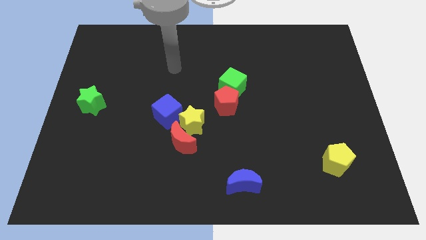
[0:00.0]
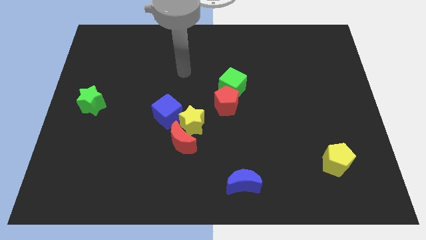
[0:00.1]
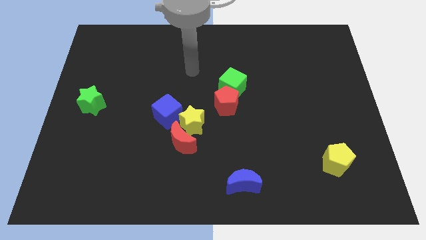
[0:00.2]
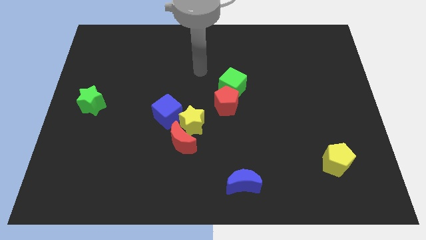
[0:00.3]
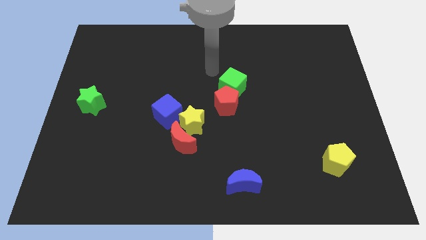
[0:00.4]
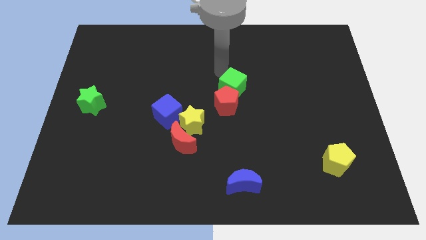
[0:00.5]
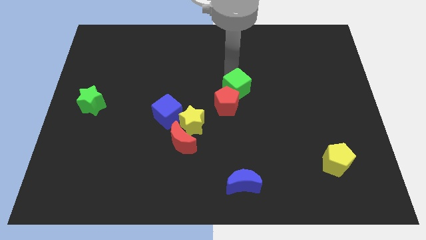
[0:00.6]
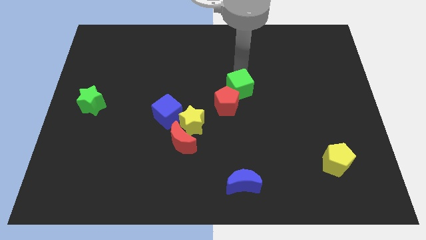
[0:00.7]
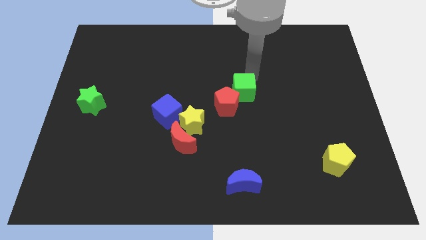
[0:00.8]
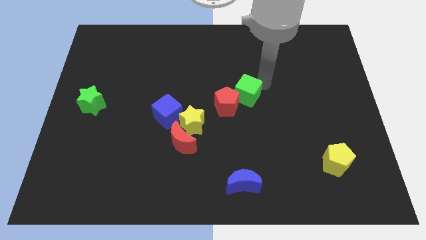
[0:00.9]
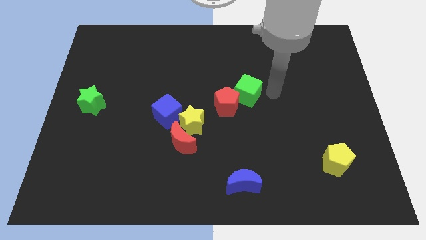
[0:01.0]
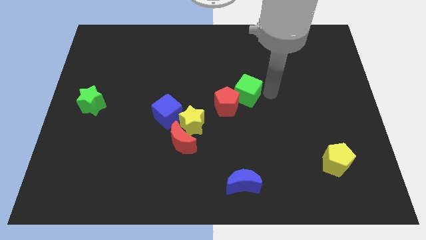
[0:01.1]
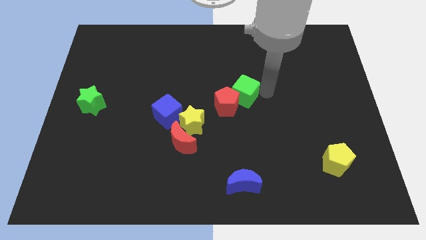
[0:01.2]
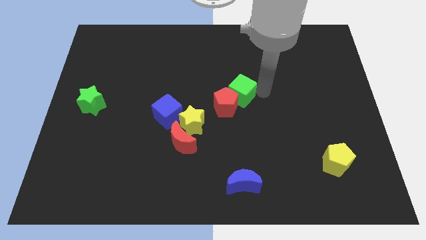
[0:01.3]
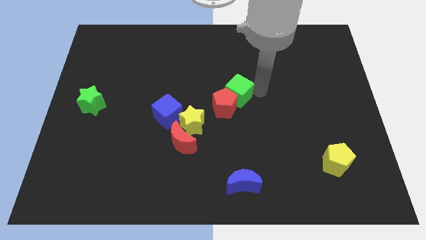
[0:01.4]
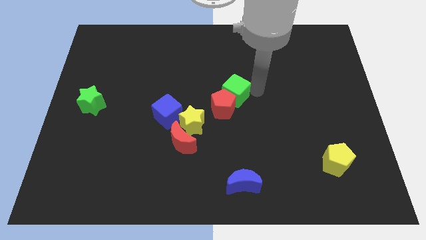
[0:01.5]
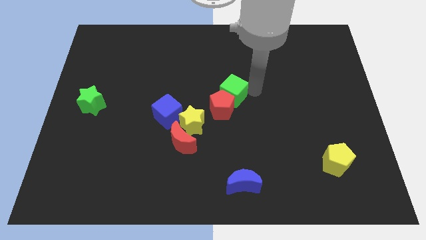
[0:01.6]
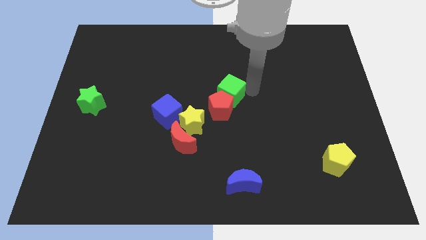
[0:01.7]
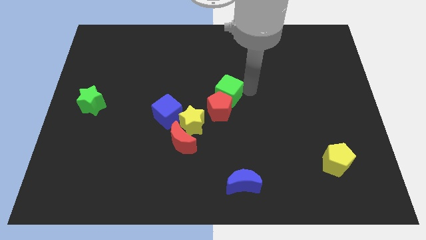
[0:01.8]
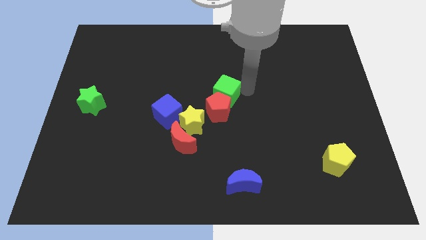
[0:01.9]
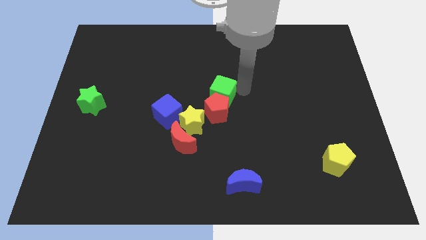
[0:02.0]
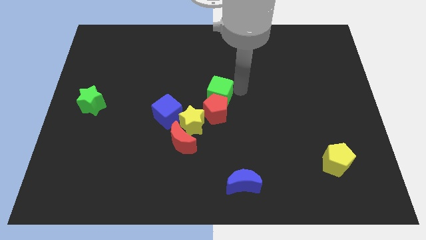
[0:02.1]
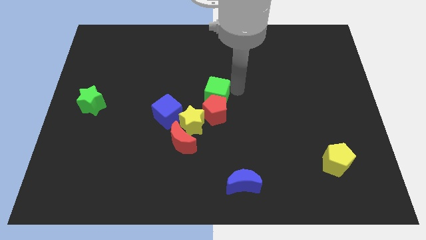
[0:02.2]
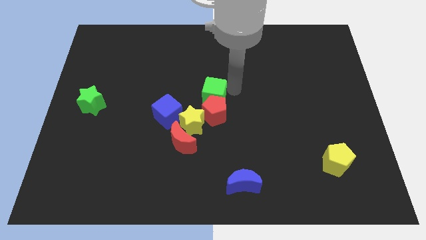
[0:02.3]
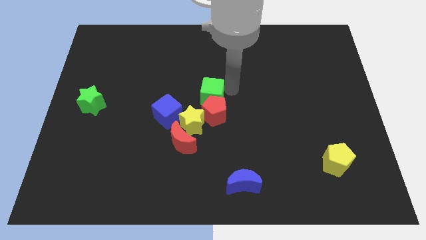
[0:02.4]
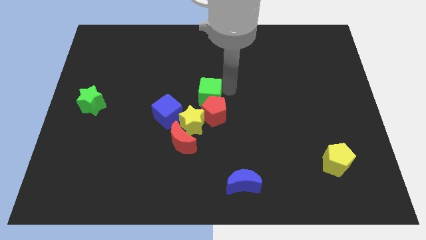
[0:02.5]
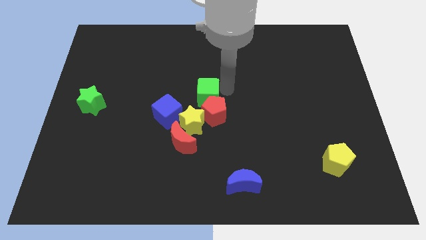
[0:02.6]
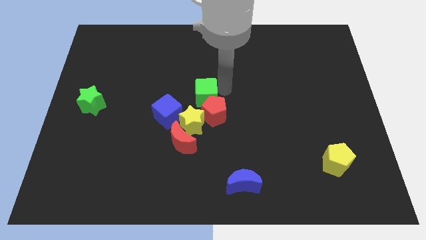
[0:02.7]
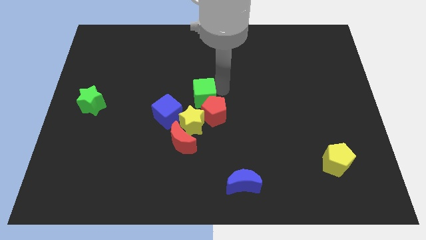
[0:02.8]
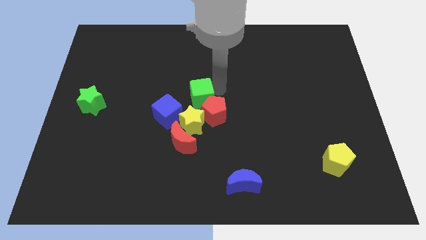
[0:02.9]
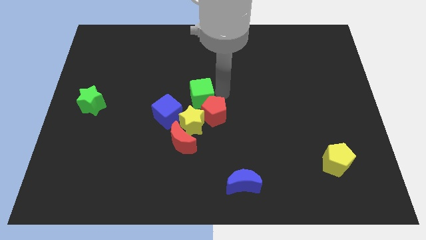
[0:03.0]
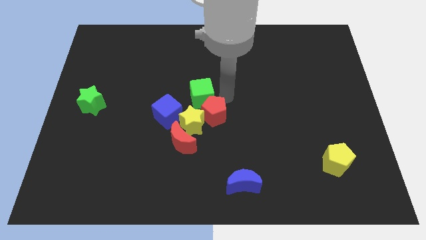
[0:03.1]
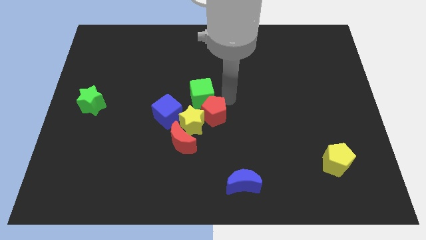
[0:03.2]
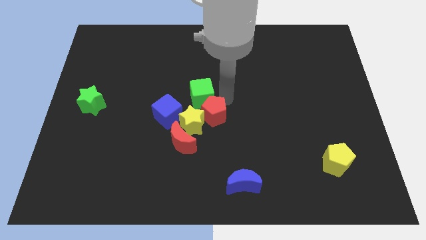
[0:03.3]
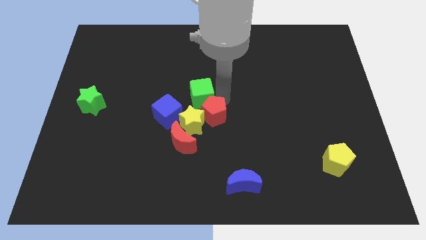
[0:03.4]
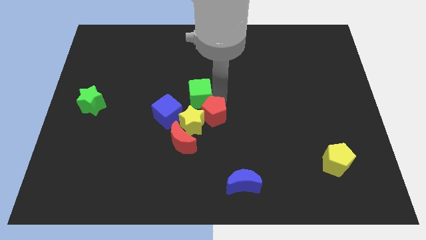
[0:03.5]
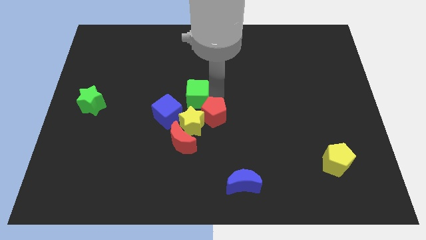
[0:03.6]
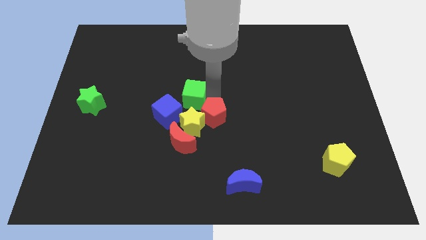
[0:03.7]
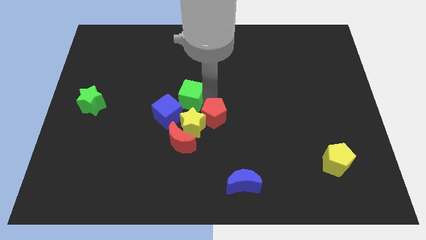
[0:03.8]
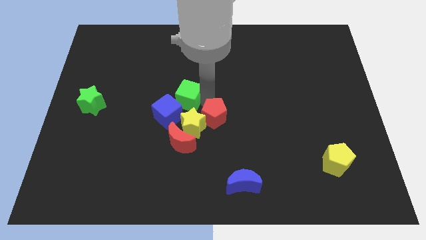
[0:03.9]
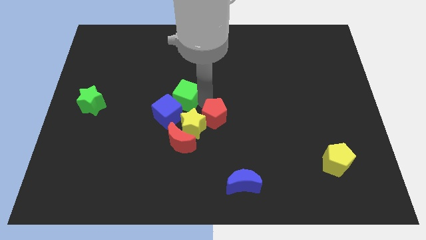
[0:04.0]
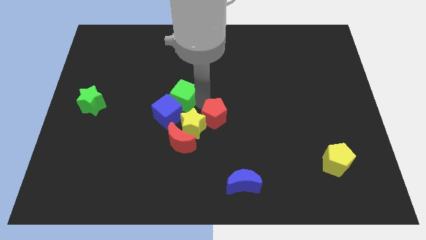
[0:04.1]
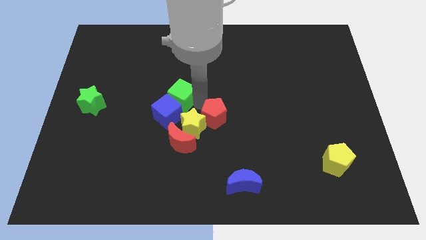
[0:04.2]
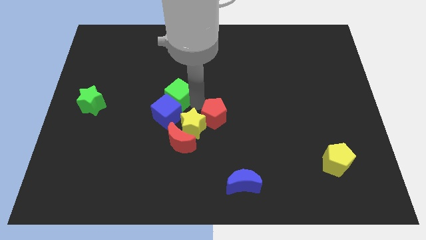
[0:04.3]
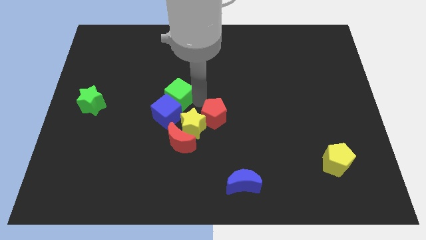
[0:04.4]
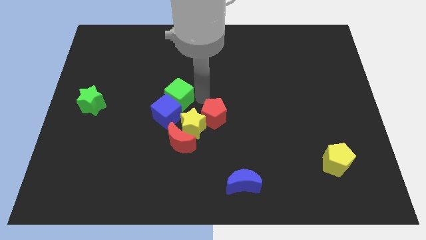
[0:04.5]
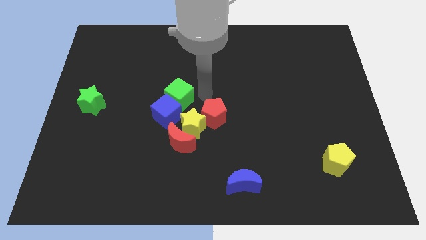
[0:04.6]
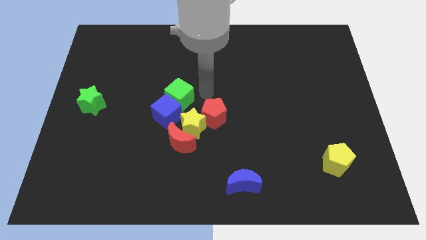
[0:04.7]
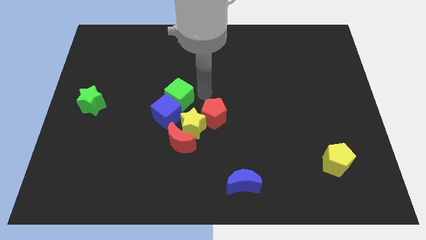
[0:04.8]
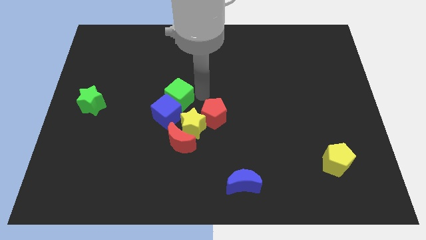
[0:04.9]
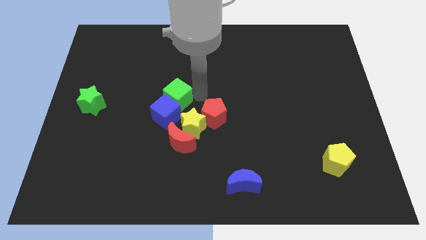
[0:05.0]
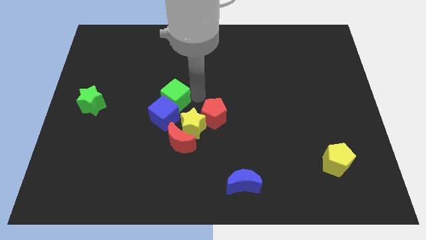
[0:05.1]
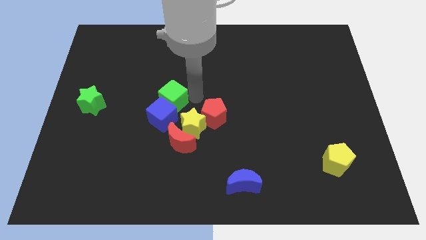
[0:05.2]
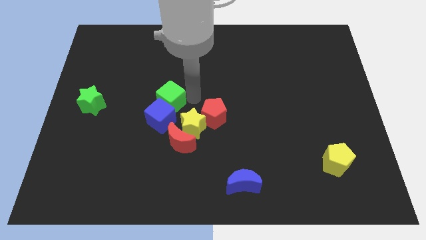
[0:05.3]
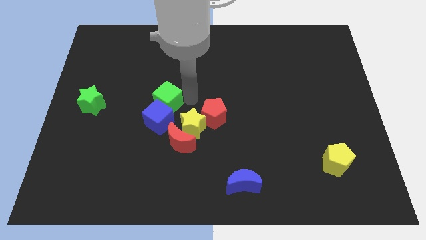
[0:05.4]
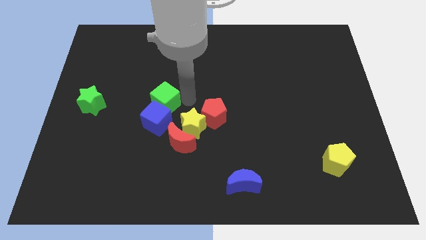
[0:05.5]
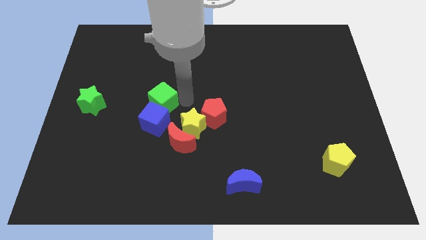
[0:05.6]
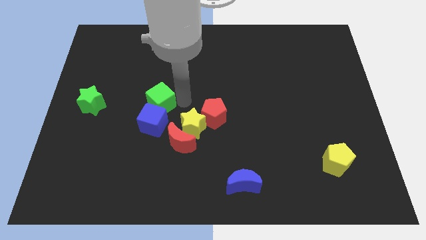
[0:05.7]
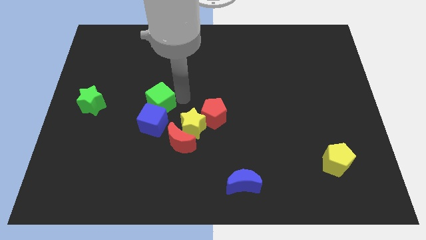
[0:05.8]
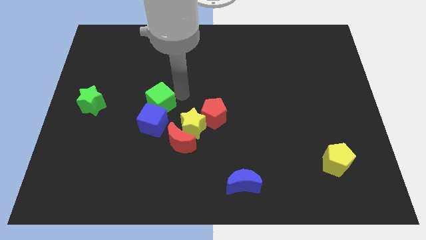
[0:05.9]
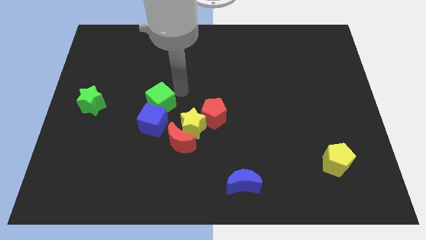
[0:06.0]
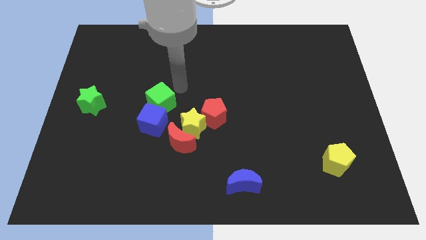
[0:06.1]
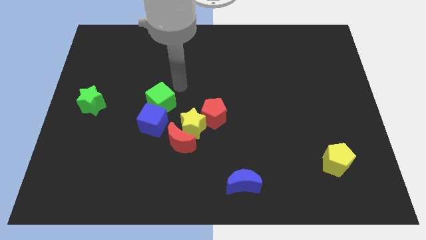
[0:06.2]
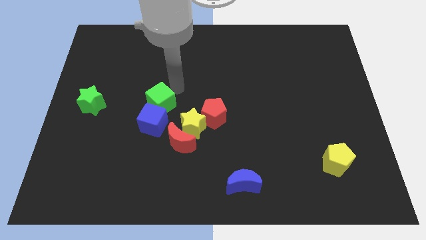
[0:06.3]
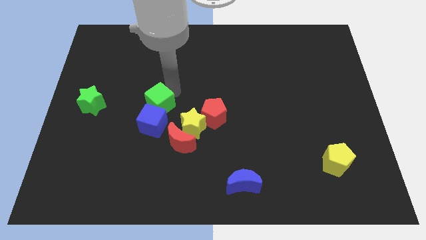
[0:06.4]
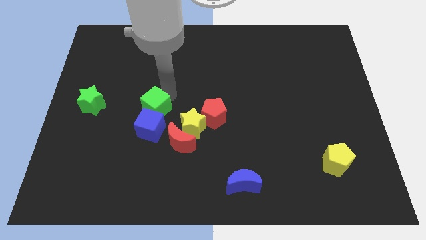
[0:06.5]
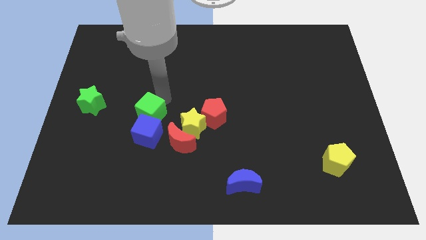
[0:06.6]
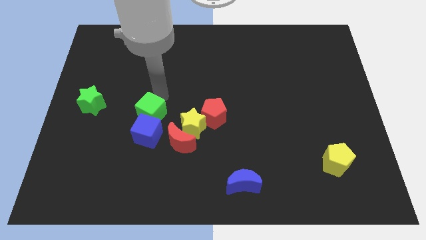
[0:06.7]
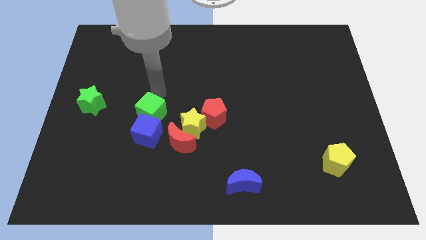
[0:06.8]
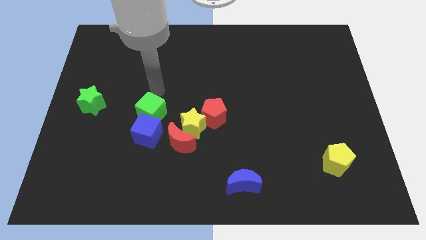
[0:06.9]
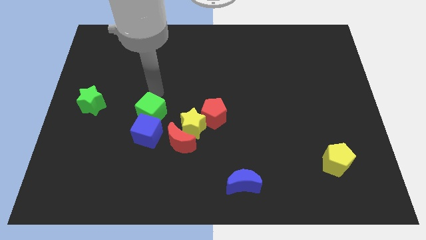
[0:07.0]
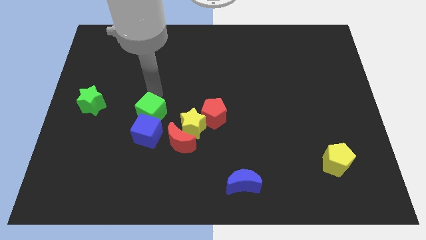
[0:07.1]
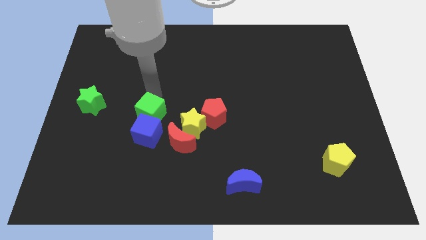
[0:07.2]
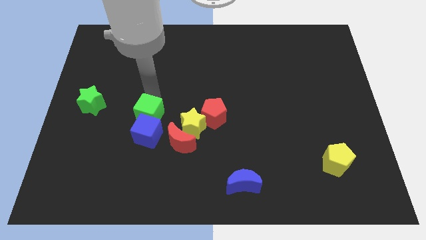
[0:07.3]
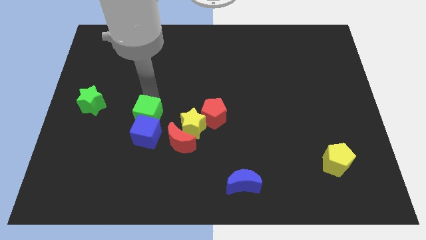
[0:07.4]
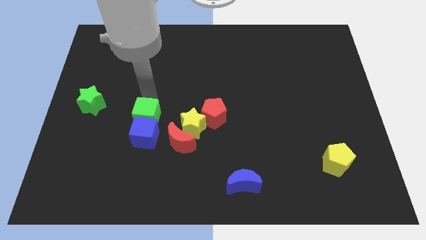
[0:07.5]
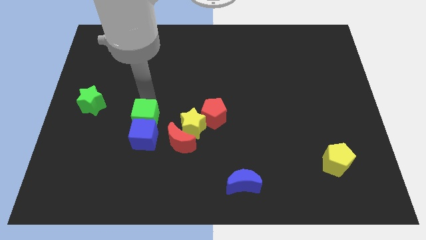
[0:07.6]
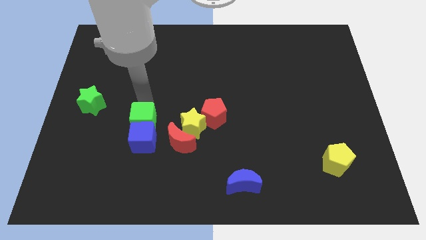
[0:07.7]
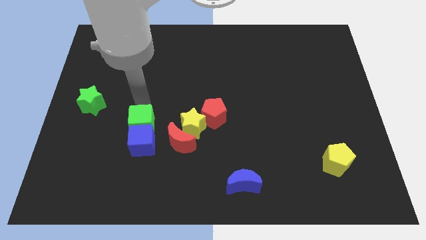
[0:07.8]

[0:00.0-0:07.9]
move the green cube down and left
